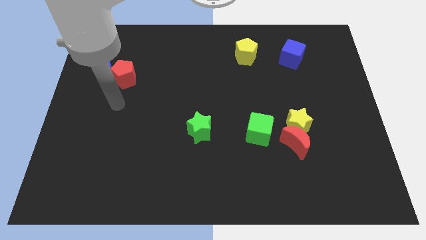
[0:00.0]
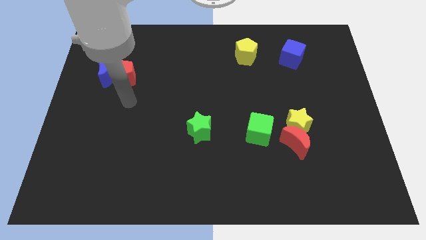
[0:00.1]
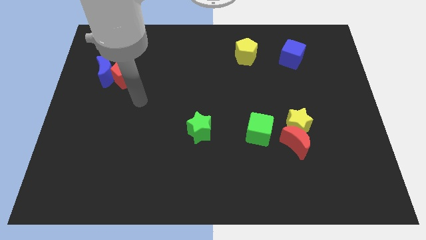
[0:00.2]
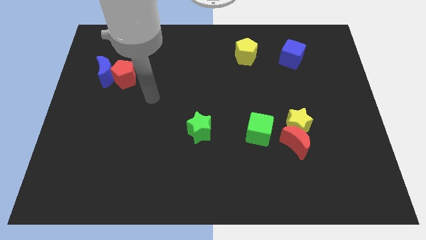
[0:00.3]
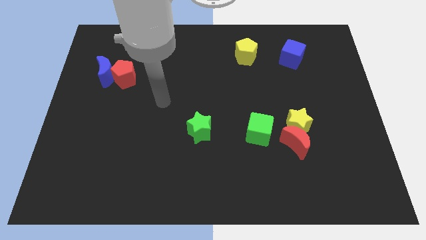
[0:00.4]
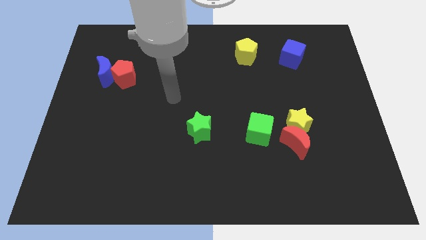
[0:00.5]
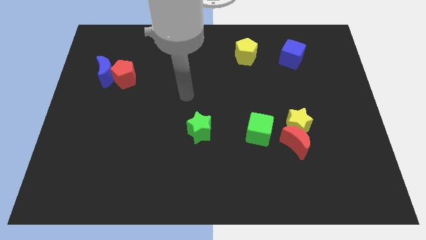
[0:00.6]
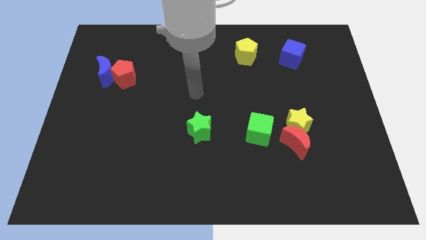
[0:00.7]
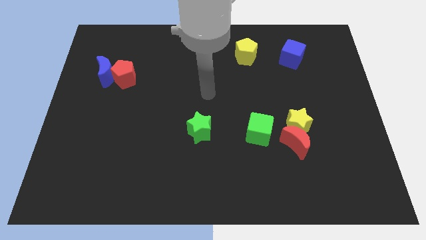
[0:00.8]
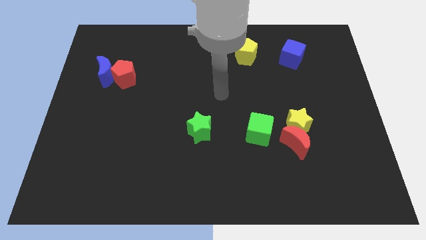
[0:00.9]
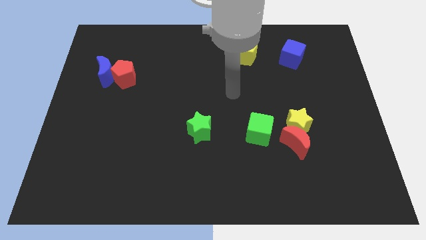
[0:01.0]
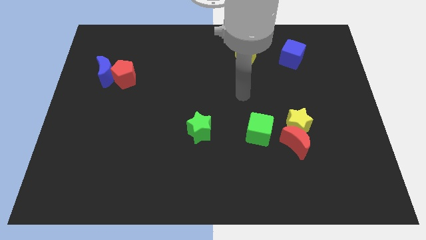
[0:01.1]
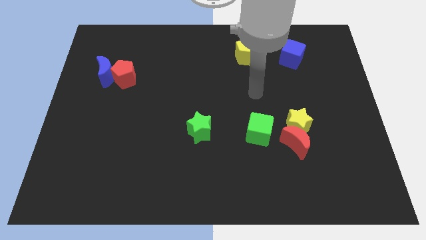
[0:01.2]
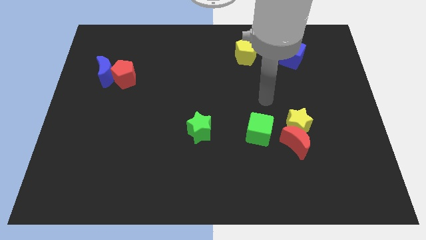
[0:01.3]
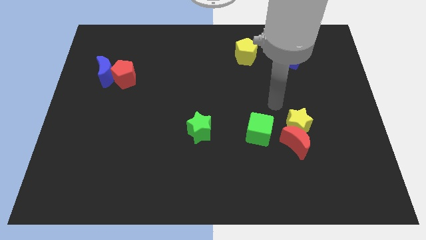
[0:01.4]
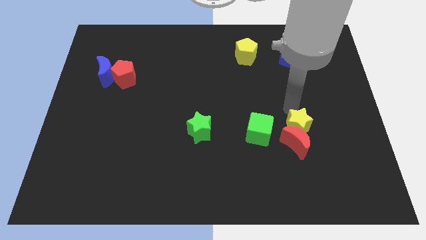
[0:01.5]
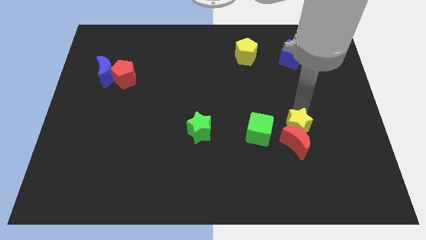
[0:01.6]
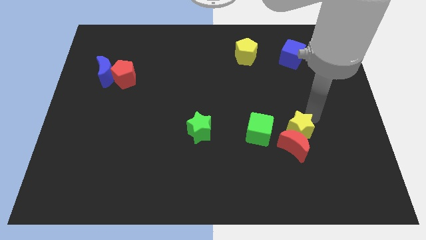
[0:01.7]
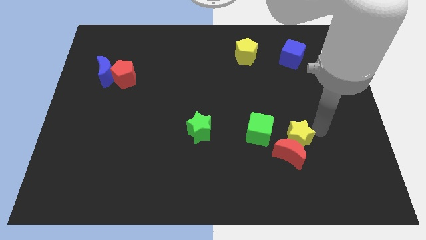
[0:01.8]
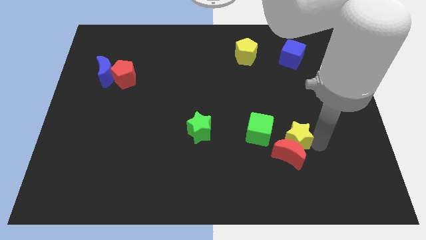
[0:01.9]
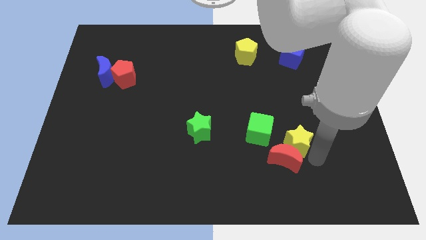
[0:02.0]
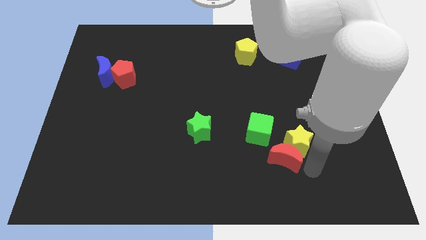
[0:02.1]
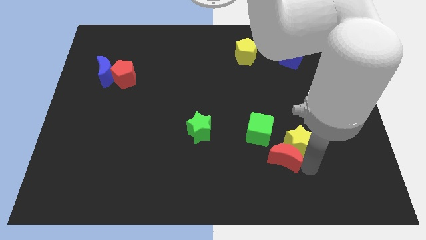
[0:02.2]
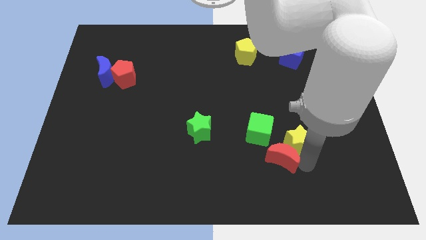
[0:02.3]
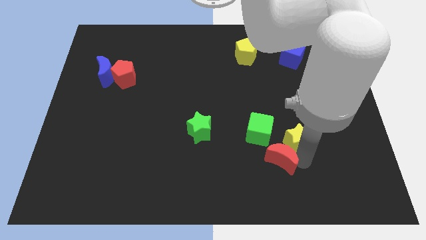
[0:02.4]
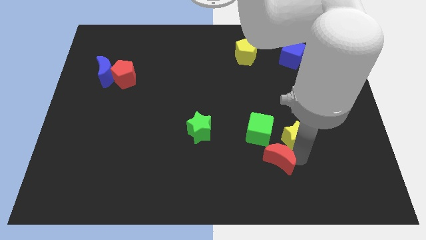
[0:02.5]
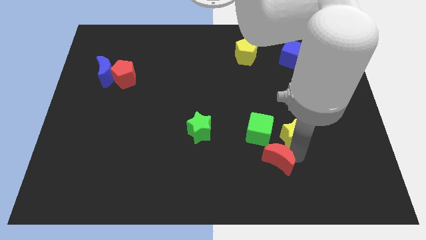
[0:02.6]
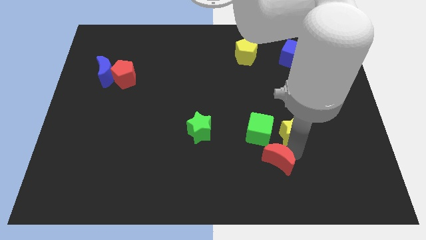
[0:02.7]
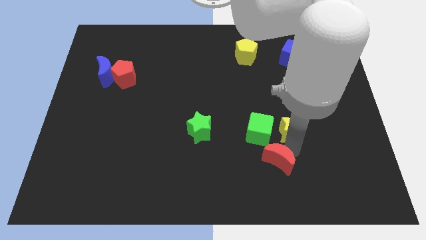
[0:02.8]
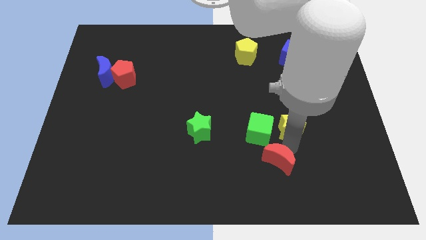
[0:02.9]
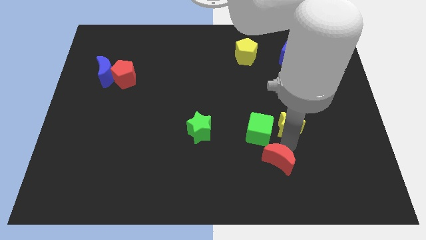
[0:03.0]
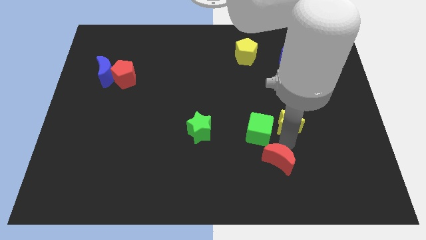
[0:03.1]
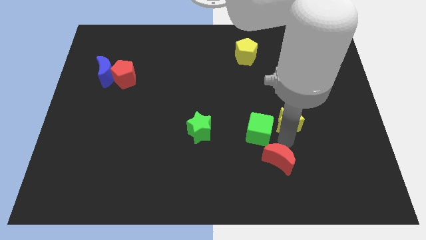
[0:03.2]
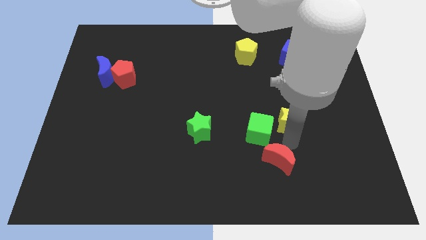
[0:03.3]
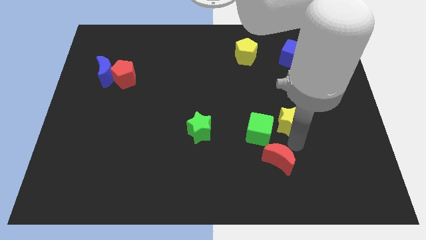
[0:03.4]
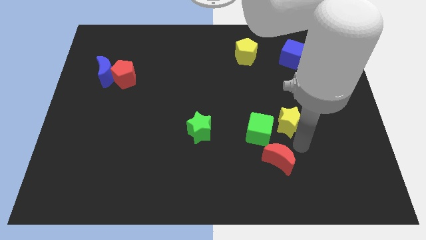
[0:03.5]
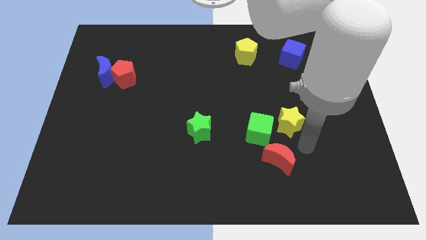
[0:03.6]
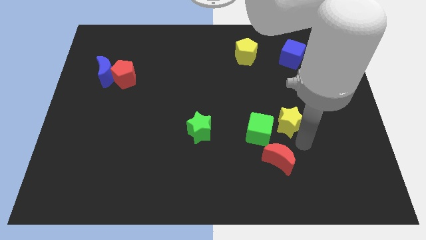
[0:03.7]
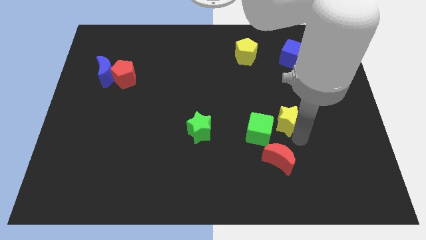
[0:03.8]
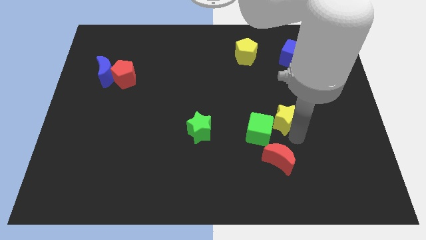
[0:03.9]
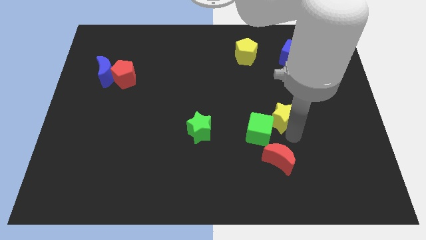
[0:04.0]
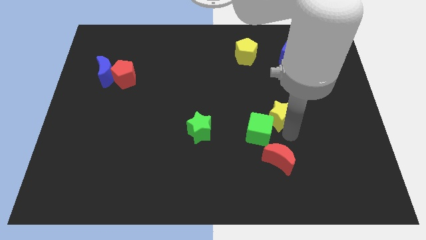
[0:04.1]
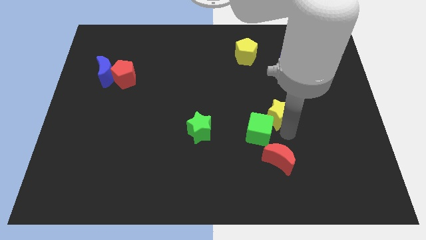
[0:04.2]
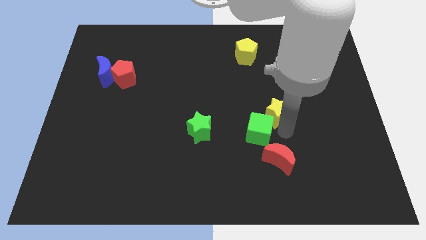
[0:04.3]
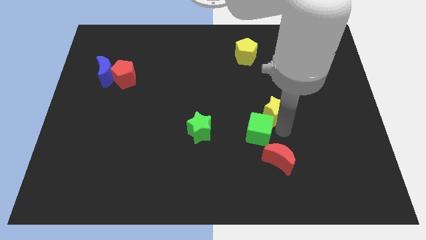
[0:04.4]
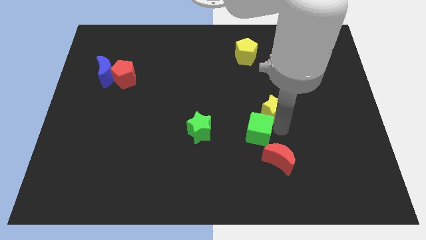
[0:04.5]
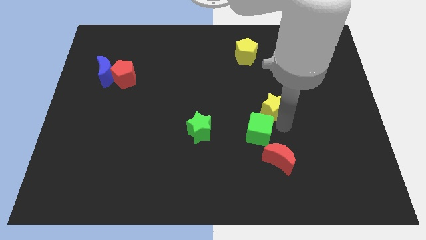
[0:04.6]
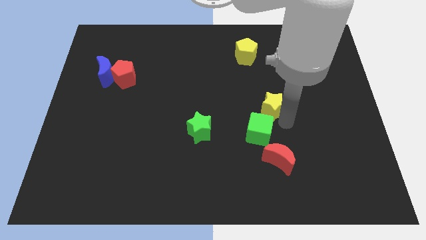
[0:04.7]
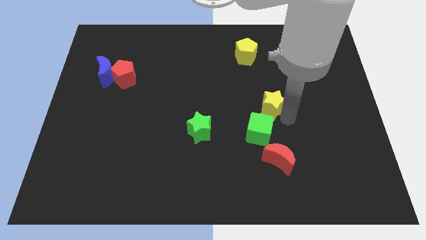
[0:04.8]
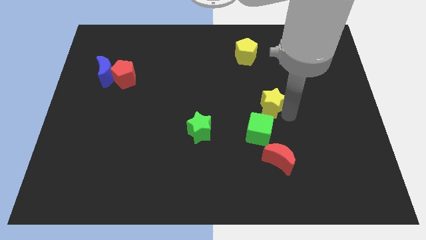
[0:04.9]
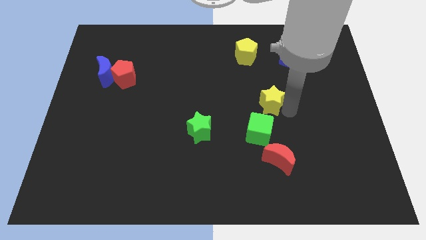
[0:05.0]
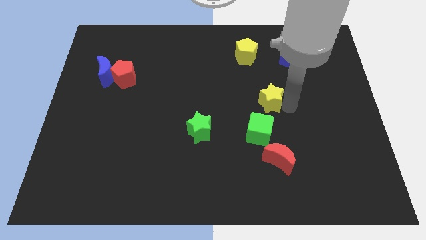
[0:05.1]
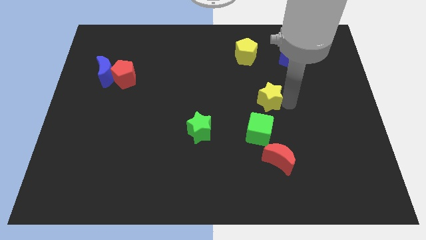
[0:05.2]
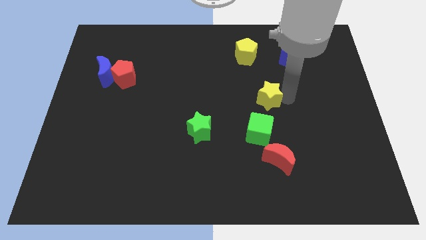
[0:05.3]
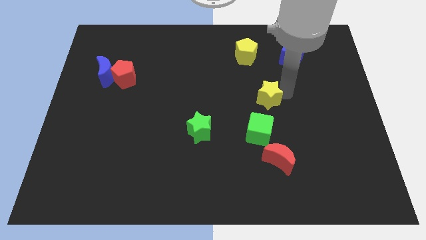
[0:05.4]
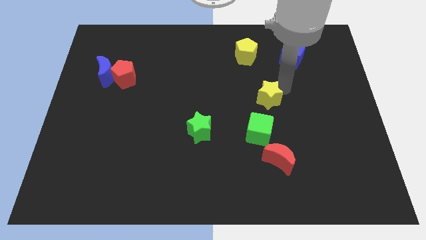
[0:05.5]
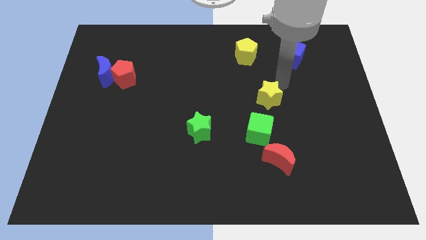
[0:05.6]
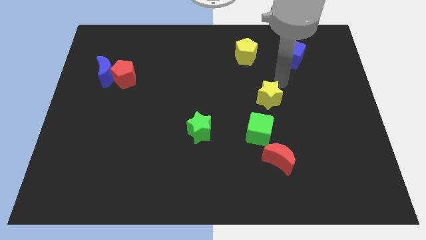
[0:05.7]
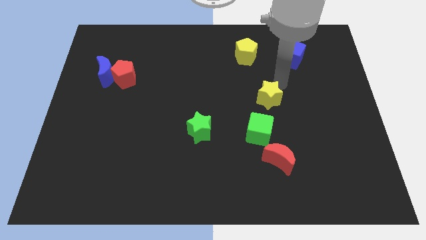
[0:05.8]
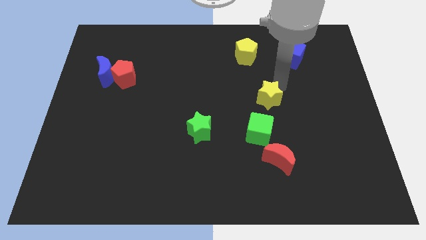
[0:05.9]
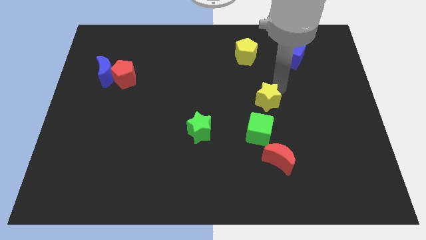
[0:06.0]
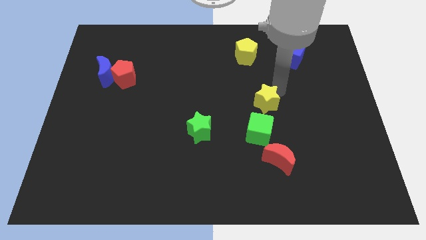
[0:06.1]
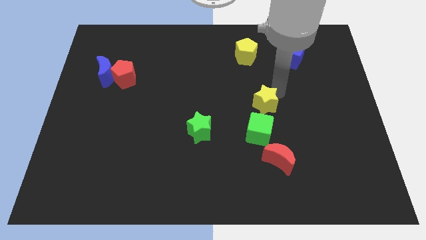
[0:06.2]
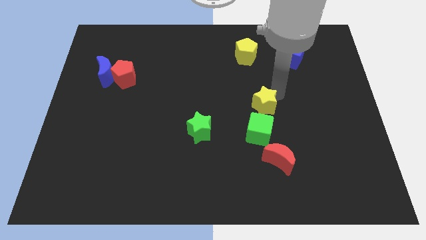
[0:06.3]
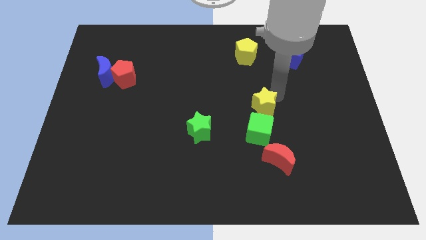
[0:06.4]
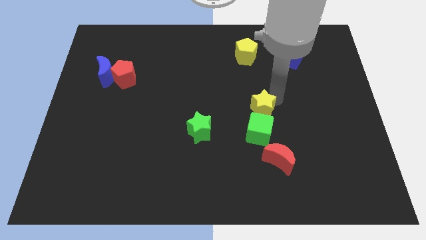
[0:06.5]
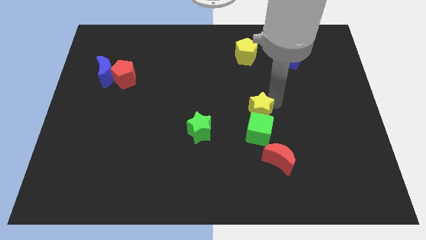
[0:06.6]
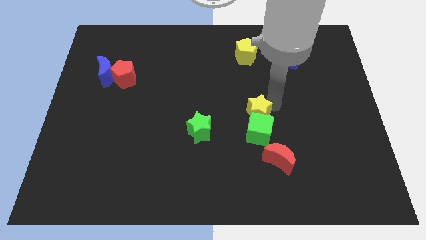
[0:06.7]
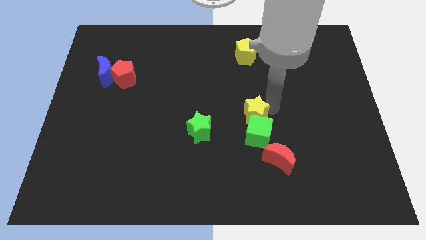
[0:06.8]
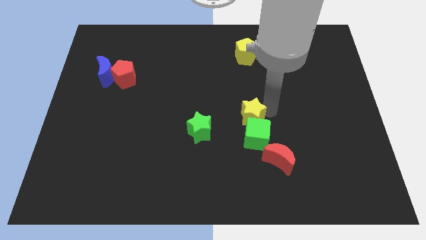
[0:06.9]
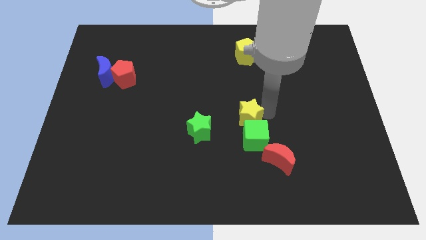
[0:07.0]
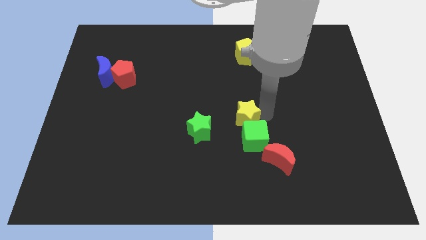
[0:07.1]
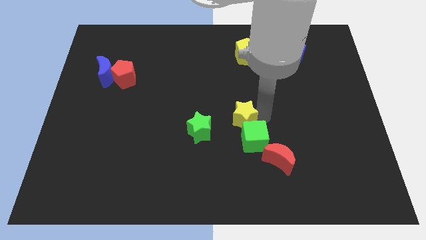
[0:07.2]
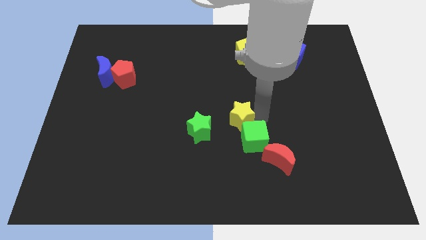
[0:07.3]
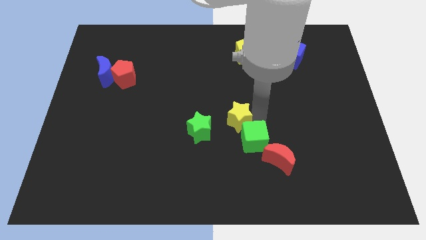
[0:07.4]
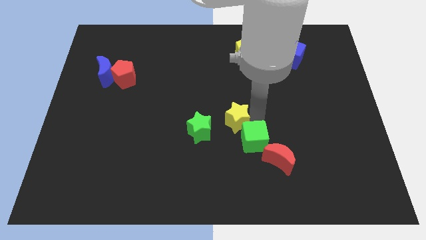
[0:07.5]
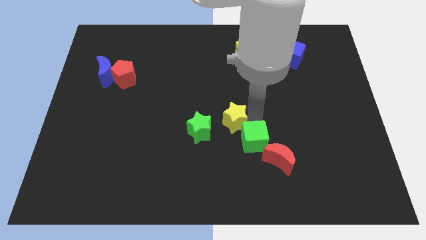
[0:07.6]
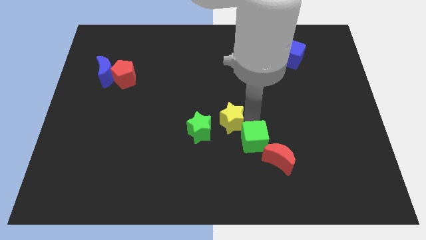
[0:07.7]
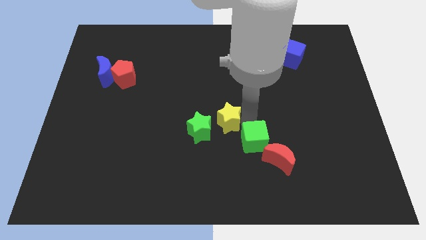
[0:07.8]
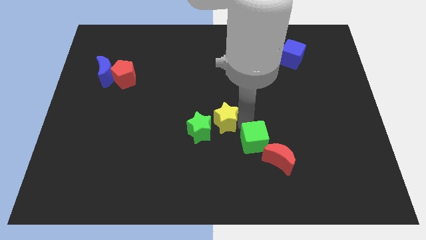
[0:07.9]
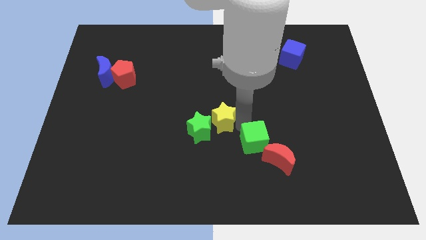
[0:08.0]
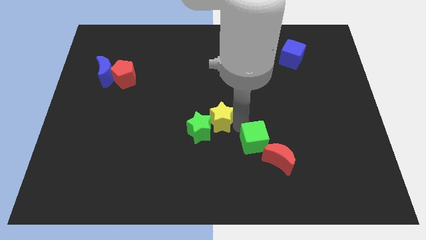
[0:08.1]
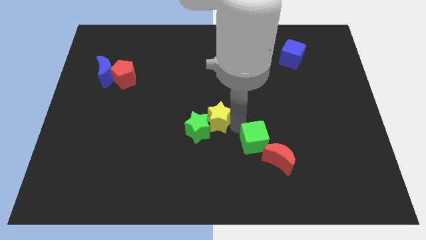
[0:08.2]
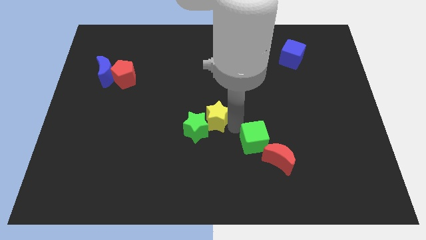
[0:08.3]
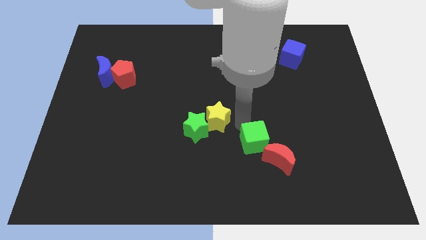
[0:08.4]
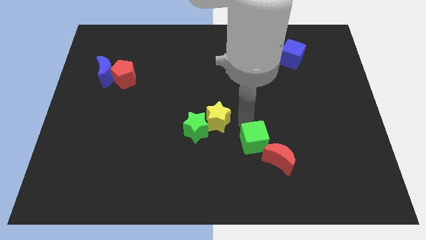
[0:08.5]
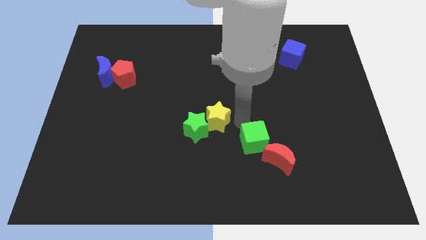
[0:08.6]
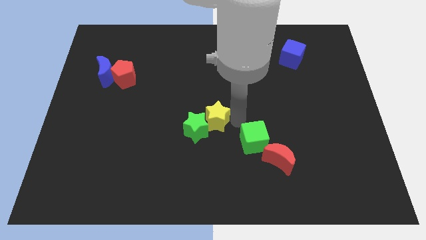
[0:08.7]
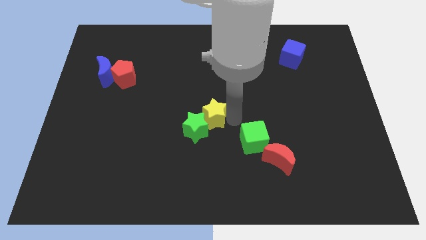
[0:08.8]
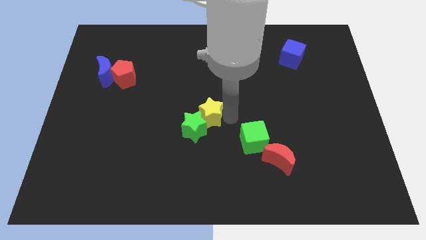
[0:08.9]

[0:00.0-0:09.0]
slide the yellow star to the left
